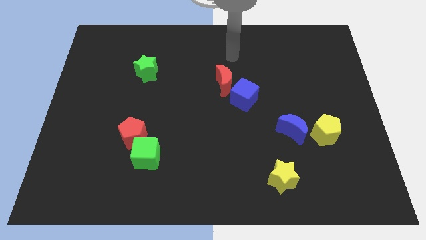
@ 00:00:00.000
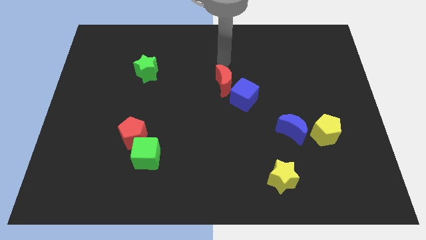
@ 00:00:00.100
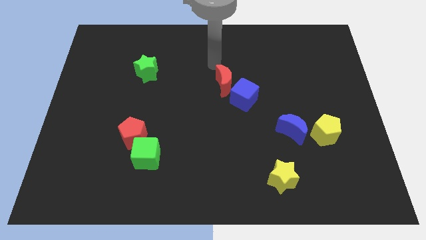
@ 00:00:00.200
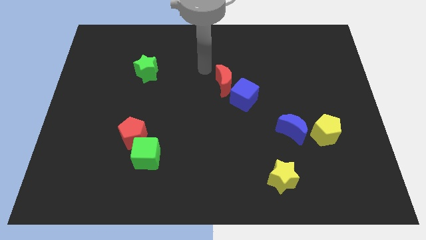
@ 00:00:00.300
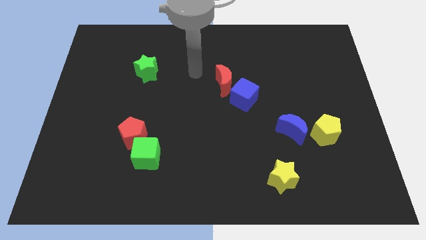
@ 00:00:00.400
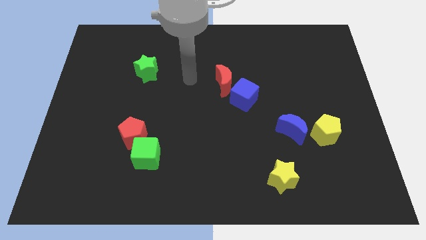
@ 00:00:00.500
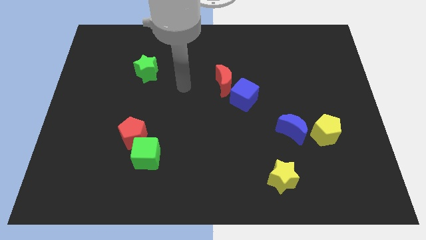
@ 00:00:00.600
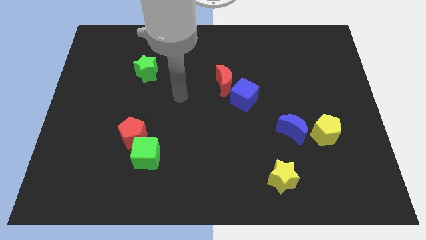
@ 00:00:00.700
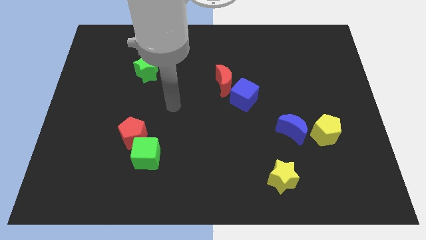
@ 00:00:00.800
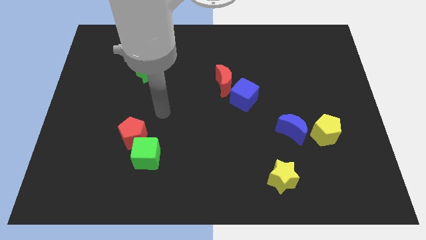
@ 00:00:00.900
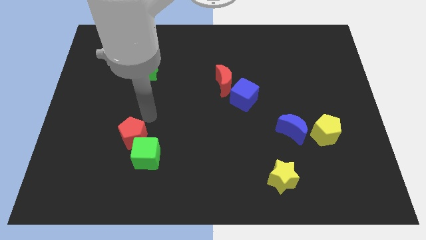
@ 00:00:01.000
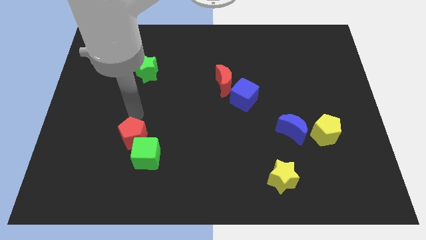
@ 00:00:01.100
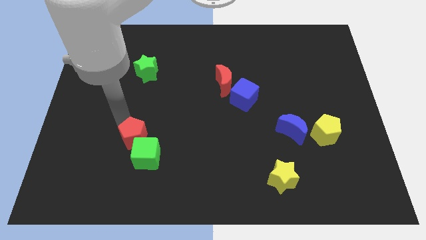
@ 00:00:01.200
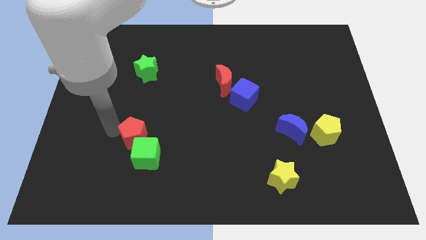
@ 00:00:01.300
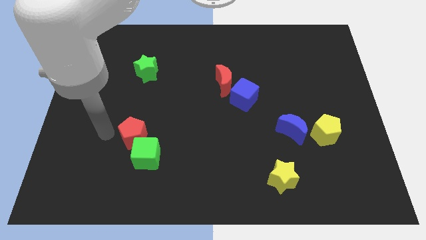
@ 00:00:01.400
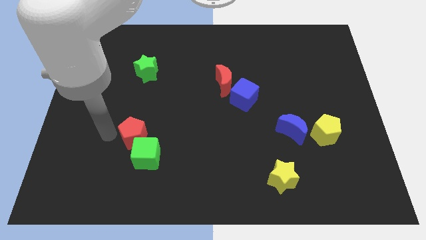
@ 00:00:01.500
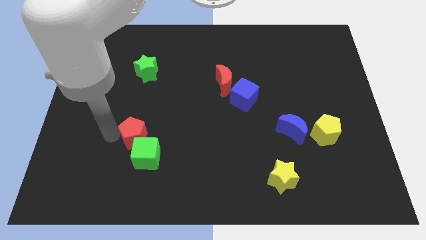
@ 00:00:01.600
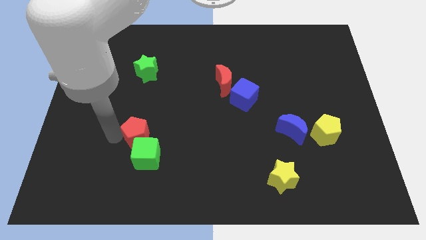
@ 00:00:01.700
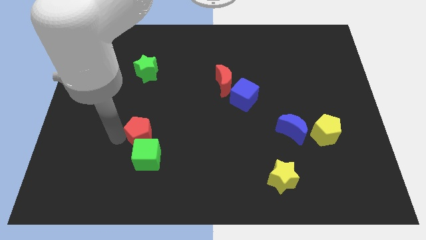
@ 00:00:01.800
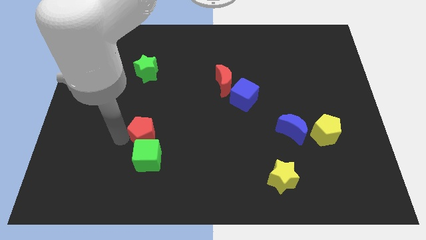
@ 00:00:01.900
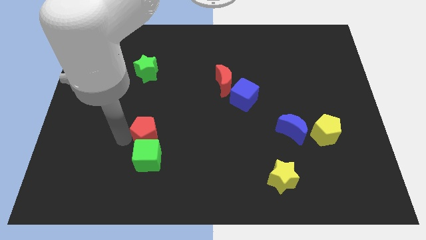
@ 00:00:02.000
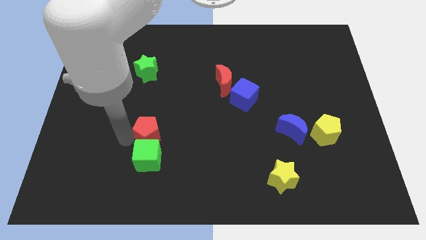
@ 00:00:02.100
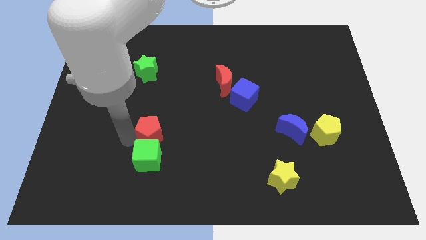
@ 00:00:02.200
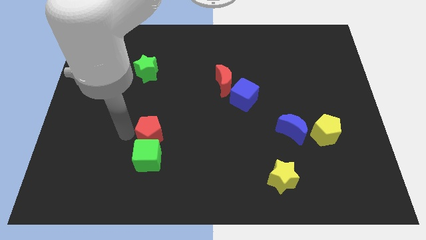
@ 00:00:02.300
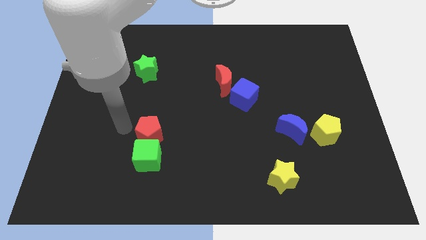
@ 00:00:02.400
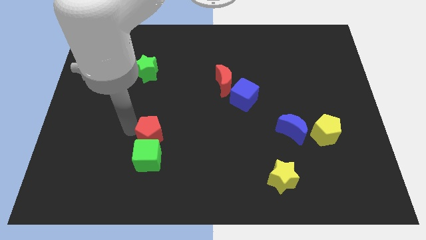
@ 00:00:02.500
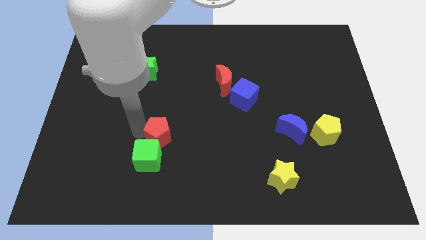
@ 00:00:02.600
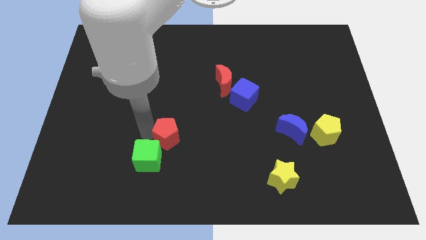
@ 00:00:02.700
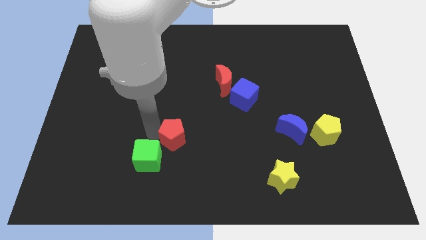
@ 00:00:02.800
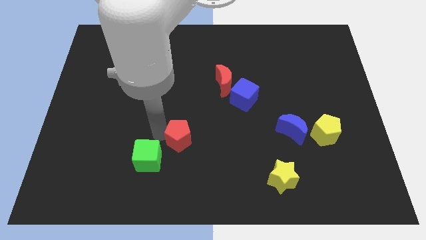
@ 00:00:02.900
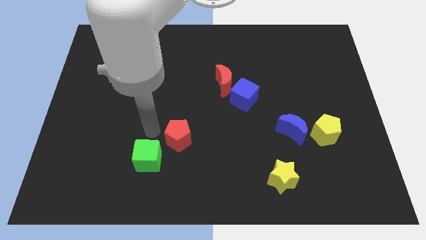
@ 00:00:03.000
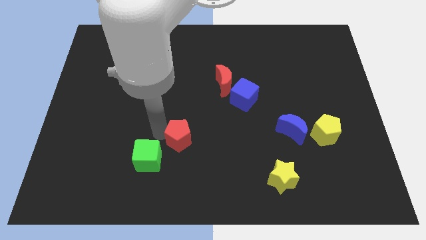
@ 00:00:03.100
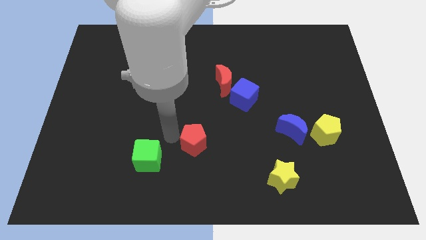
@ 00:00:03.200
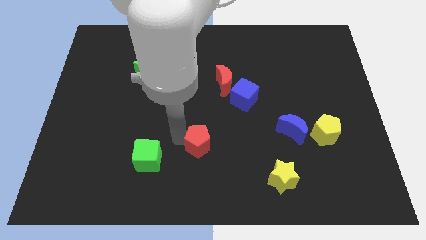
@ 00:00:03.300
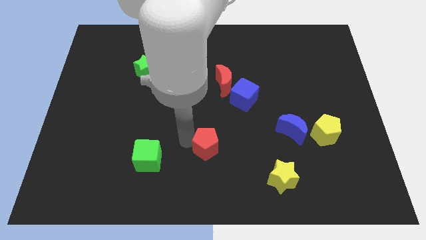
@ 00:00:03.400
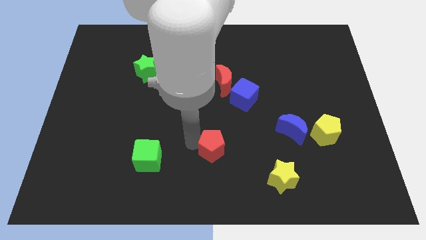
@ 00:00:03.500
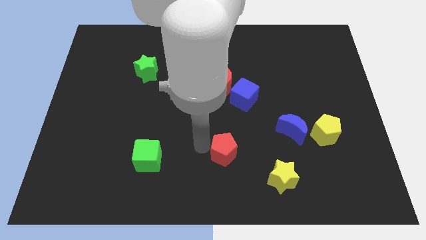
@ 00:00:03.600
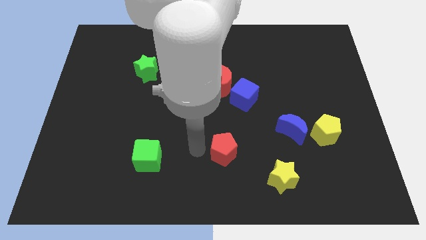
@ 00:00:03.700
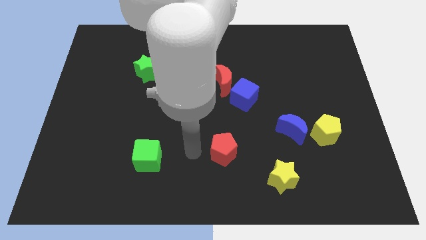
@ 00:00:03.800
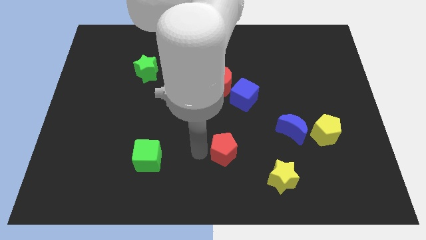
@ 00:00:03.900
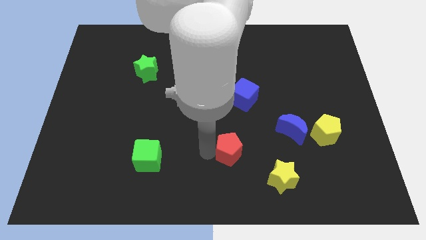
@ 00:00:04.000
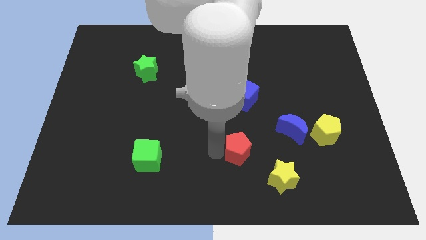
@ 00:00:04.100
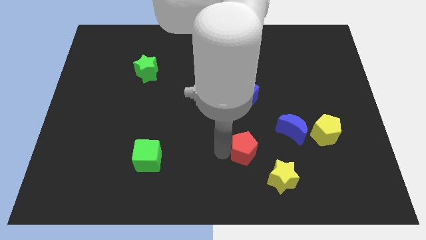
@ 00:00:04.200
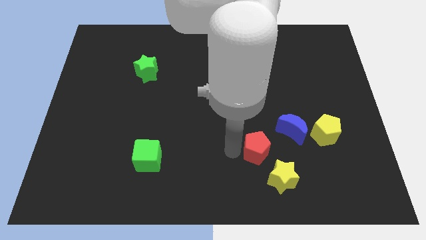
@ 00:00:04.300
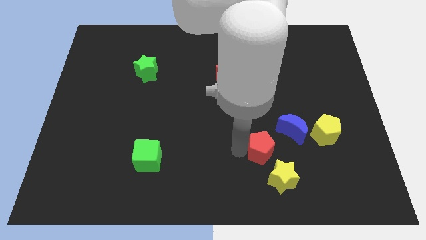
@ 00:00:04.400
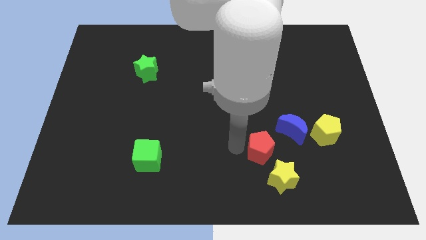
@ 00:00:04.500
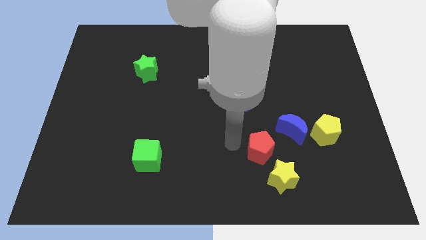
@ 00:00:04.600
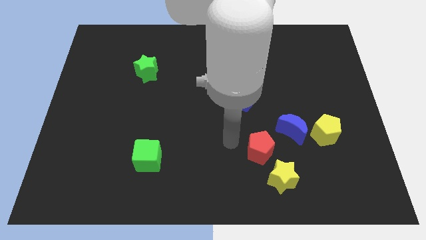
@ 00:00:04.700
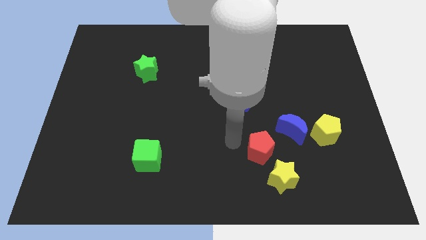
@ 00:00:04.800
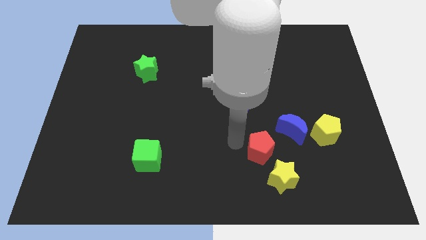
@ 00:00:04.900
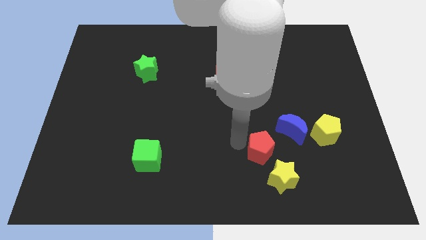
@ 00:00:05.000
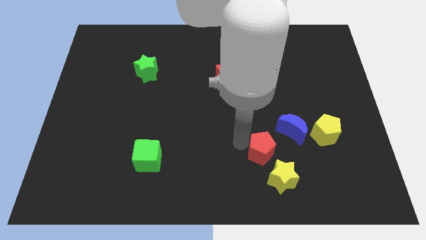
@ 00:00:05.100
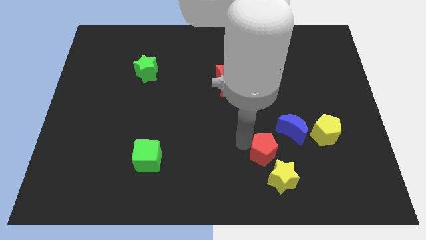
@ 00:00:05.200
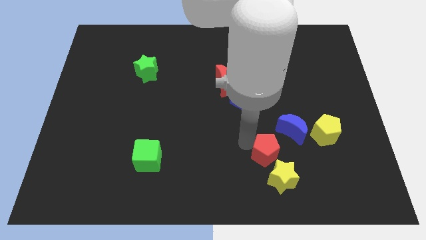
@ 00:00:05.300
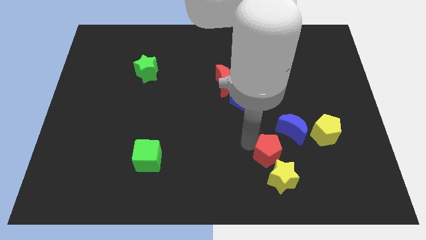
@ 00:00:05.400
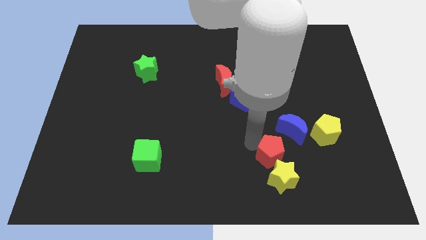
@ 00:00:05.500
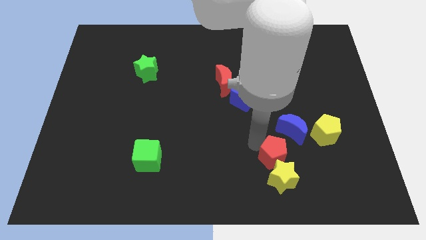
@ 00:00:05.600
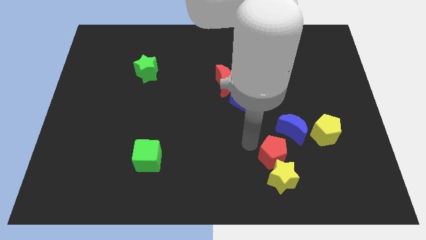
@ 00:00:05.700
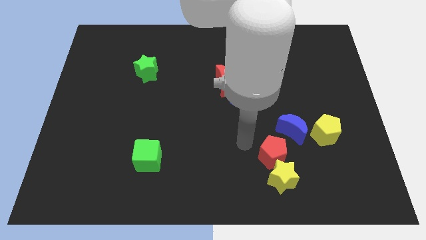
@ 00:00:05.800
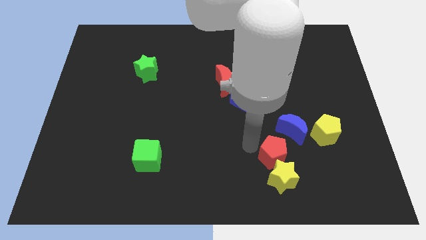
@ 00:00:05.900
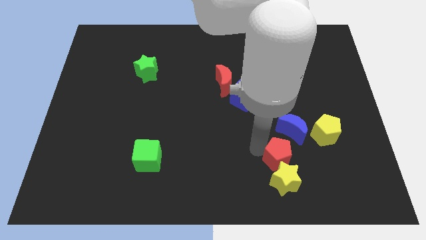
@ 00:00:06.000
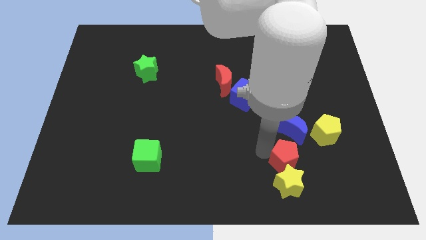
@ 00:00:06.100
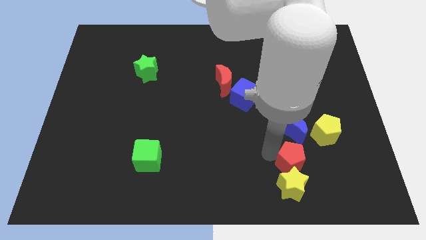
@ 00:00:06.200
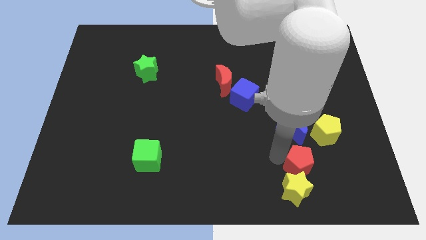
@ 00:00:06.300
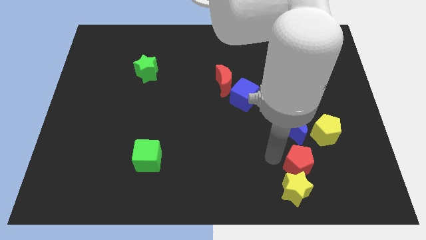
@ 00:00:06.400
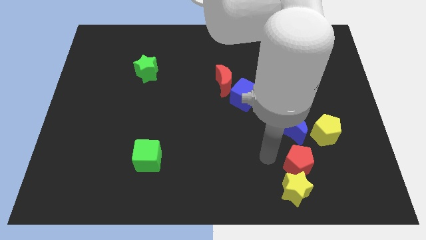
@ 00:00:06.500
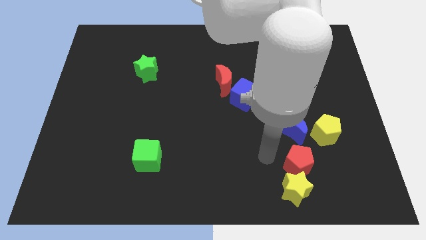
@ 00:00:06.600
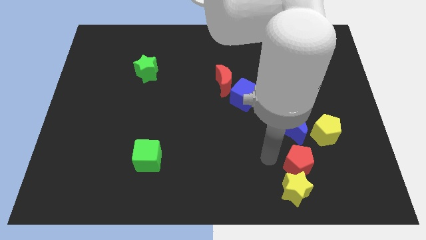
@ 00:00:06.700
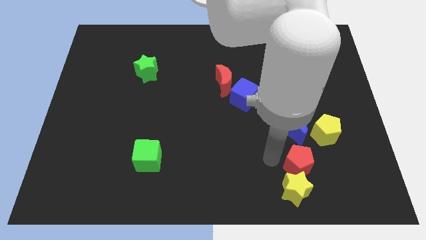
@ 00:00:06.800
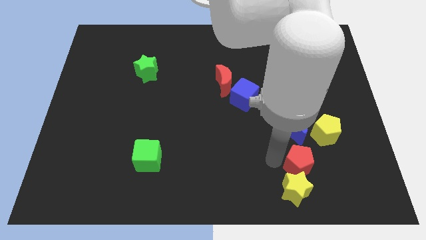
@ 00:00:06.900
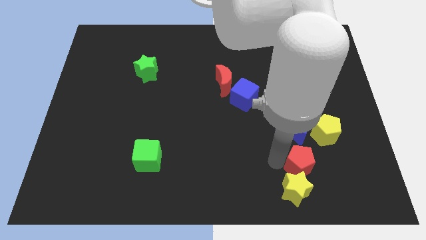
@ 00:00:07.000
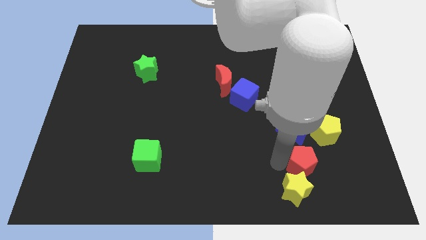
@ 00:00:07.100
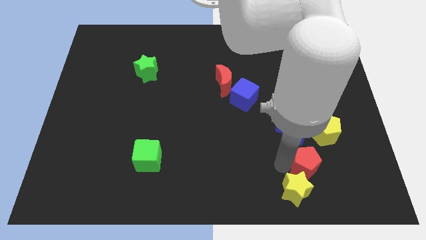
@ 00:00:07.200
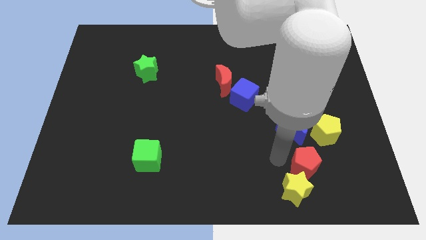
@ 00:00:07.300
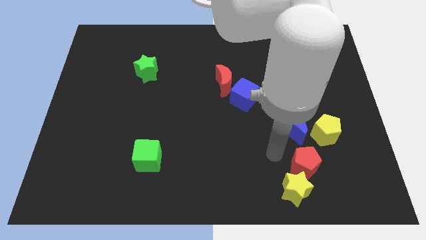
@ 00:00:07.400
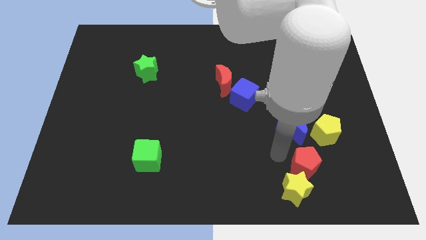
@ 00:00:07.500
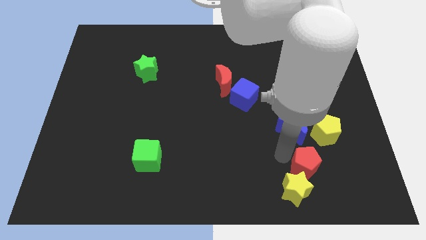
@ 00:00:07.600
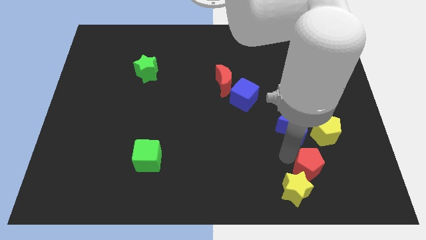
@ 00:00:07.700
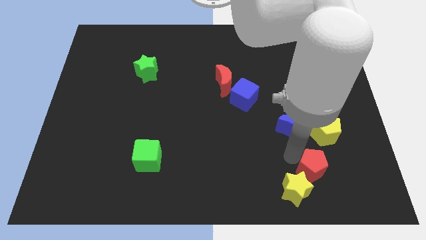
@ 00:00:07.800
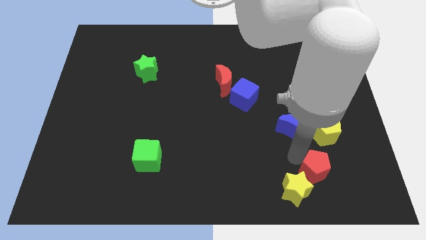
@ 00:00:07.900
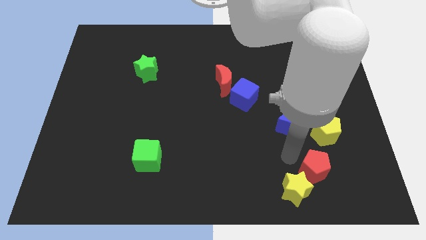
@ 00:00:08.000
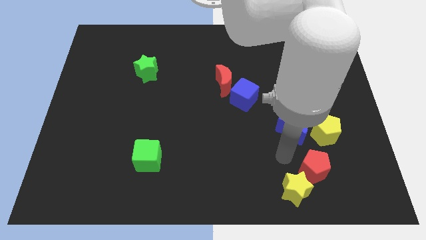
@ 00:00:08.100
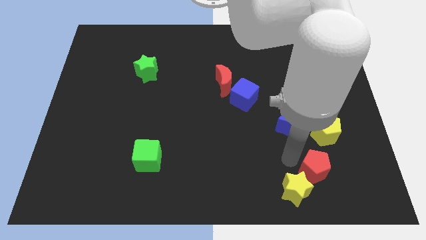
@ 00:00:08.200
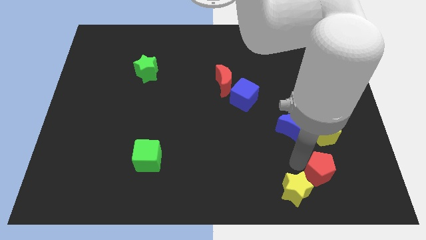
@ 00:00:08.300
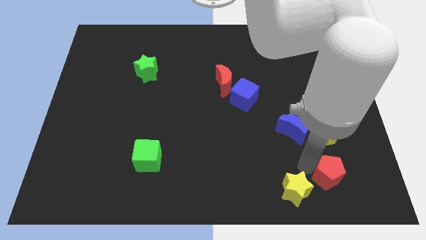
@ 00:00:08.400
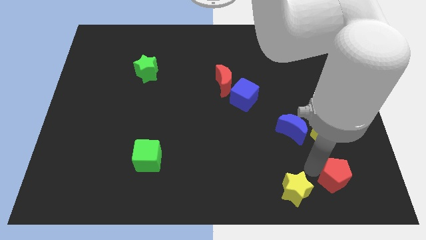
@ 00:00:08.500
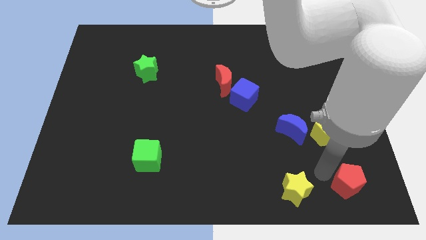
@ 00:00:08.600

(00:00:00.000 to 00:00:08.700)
put the red pentagon to the bottom right corner
